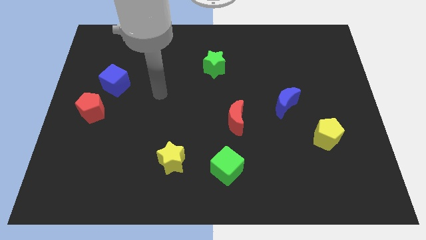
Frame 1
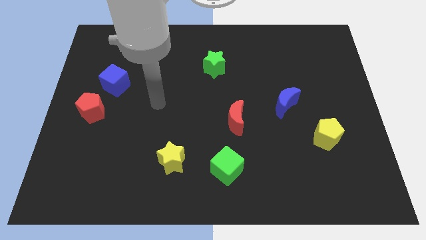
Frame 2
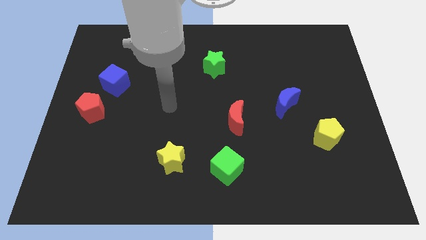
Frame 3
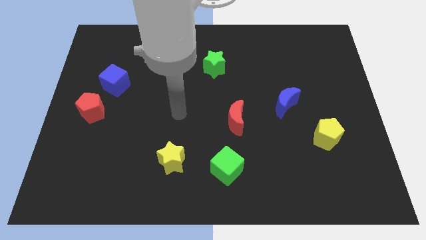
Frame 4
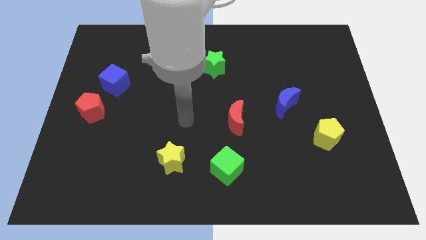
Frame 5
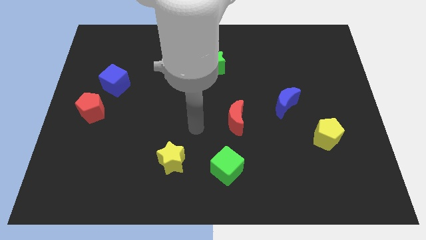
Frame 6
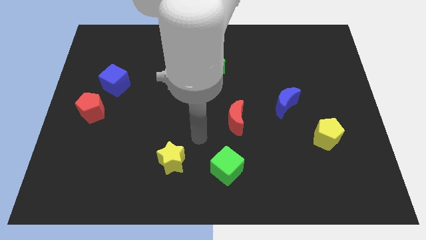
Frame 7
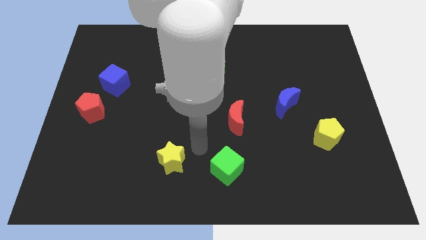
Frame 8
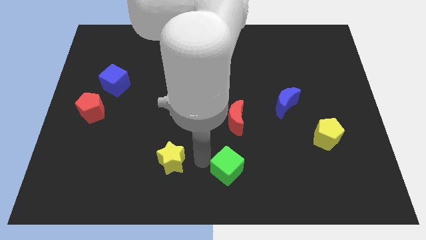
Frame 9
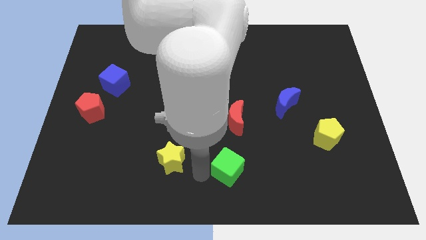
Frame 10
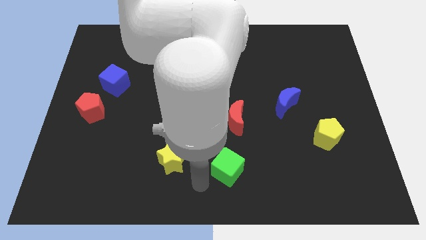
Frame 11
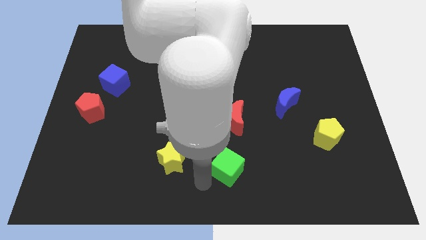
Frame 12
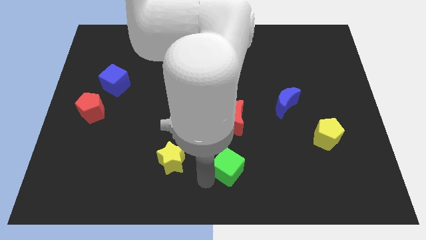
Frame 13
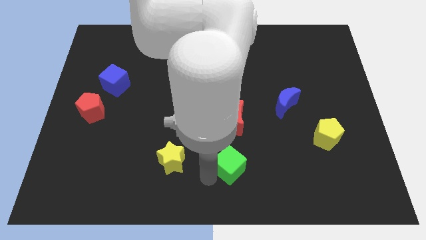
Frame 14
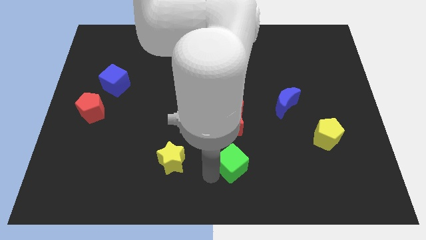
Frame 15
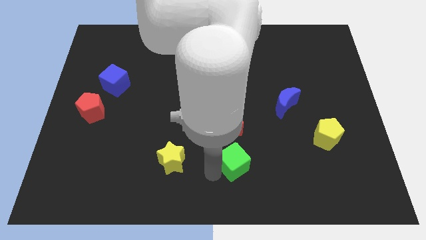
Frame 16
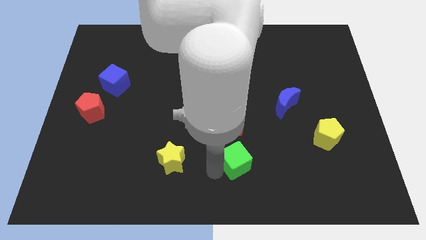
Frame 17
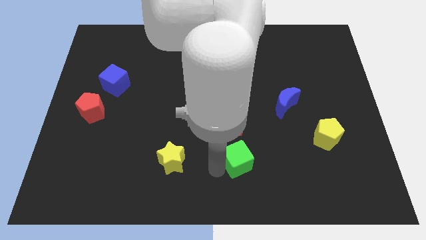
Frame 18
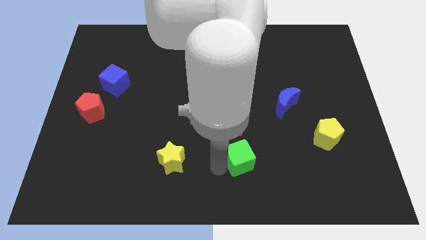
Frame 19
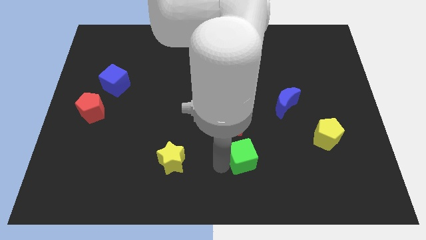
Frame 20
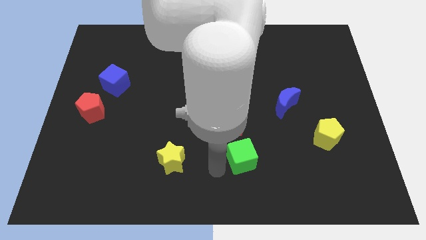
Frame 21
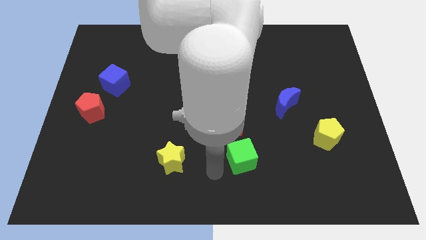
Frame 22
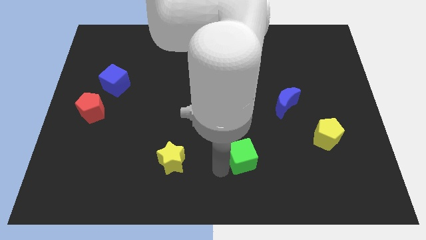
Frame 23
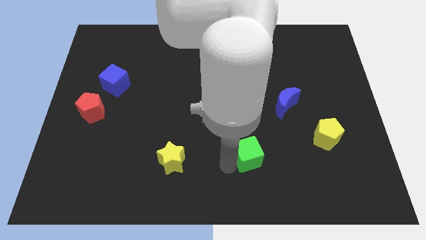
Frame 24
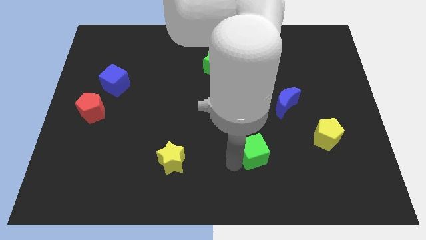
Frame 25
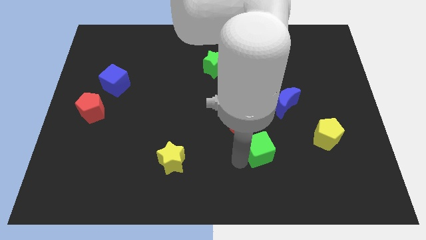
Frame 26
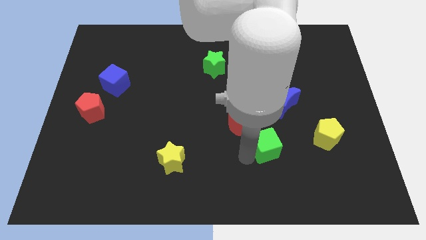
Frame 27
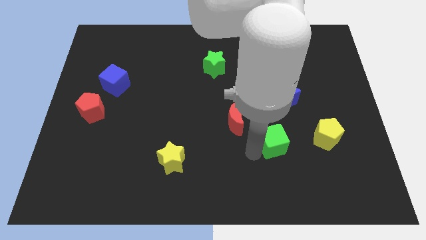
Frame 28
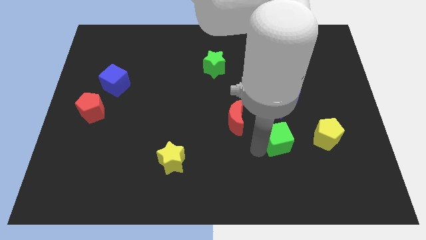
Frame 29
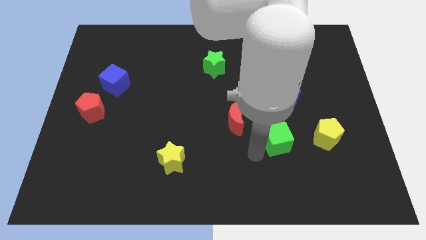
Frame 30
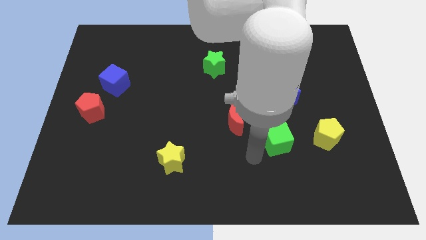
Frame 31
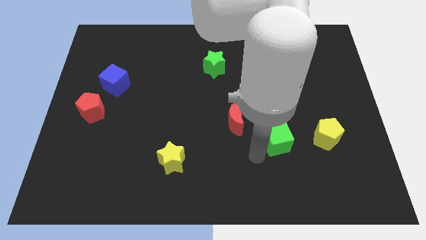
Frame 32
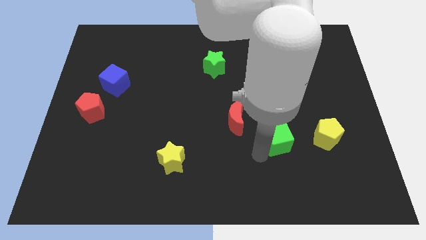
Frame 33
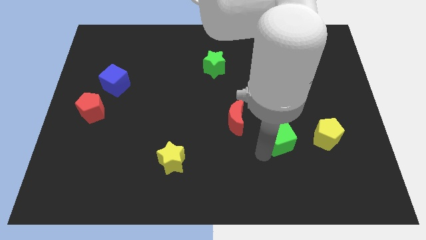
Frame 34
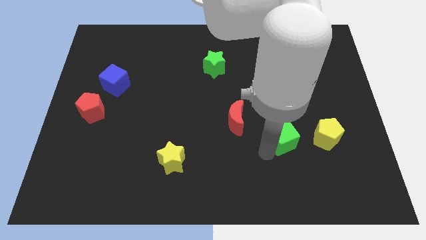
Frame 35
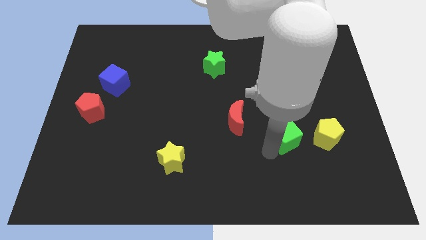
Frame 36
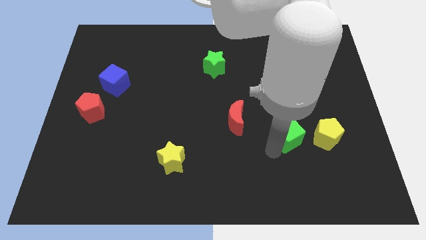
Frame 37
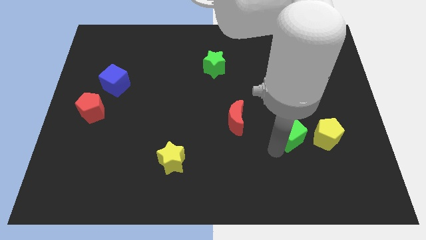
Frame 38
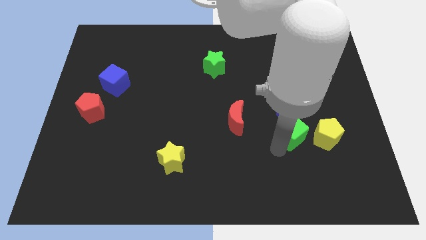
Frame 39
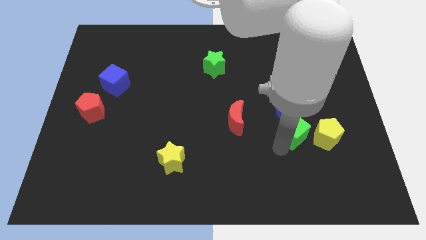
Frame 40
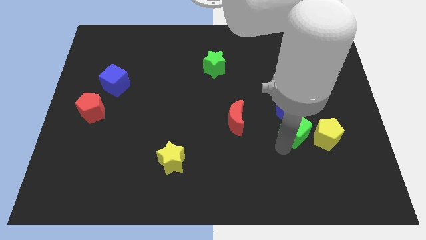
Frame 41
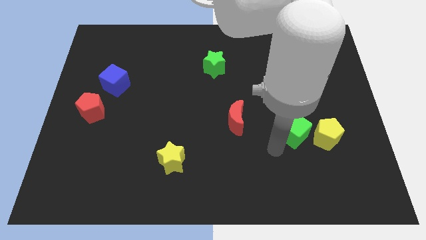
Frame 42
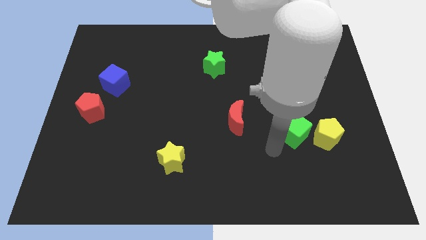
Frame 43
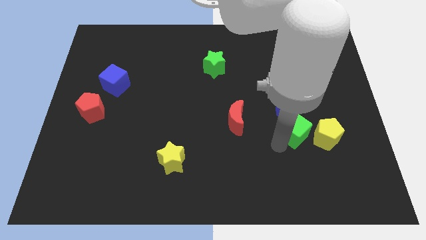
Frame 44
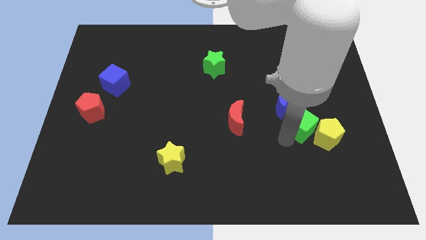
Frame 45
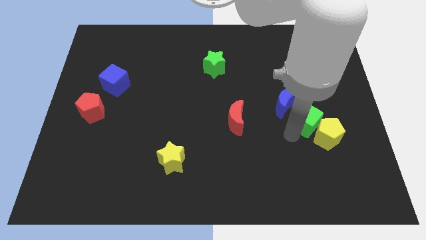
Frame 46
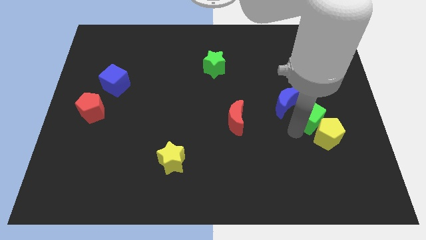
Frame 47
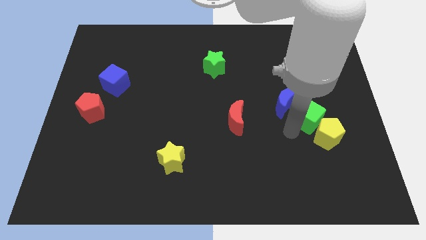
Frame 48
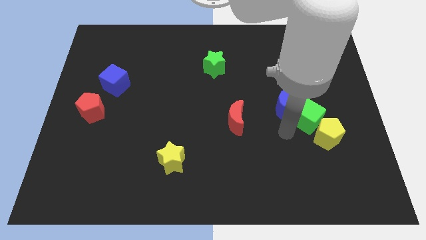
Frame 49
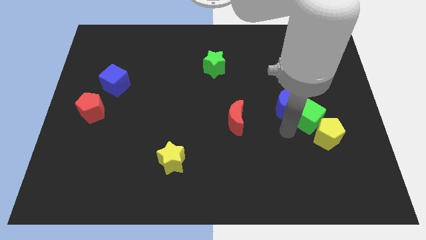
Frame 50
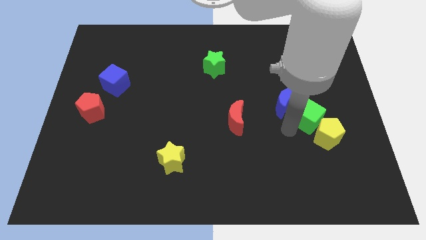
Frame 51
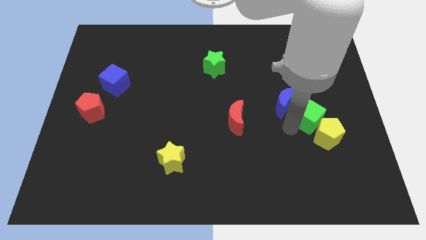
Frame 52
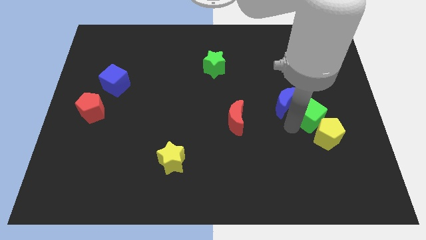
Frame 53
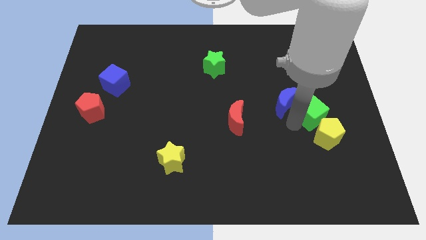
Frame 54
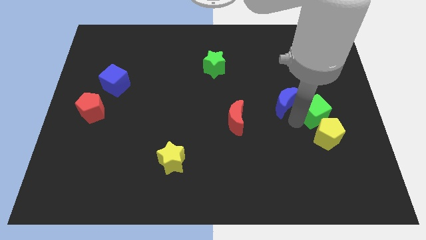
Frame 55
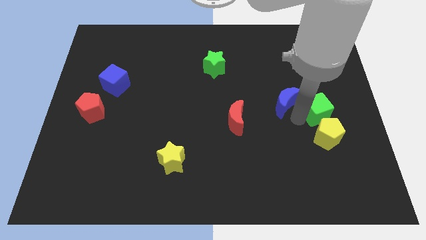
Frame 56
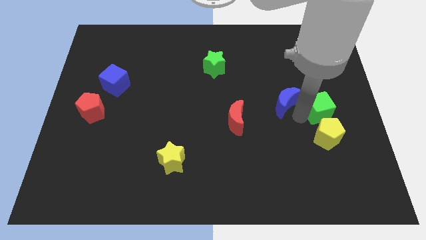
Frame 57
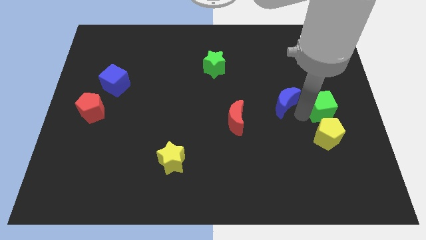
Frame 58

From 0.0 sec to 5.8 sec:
slide the green cube to the center right

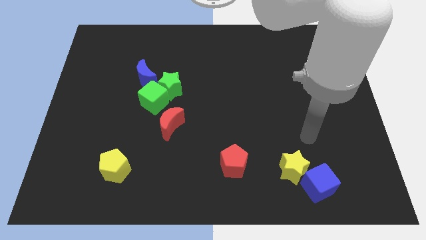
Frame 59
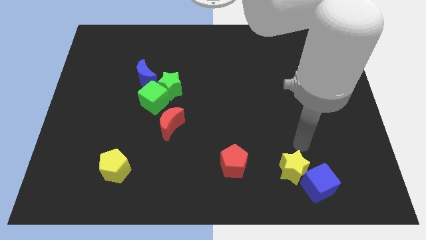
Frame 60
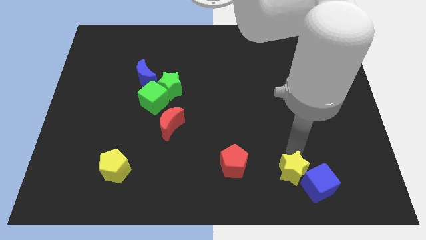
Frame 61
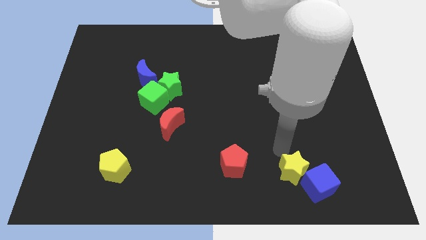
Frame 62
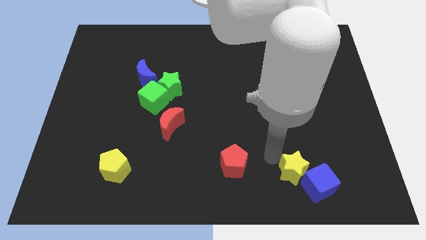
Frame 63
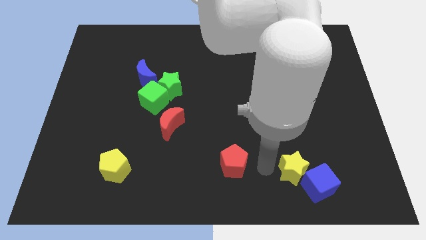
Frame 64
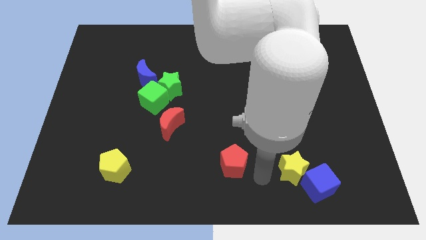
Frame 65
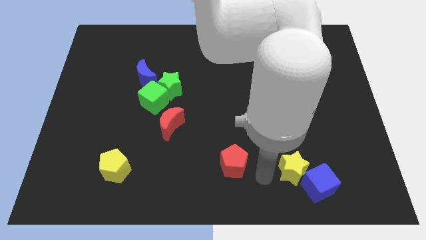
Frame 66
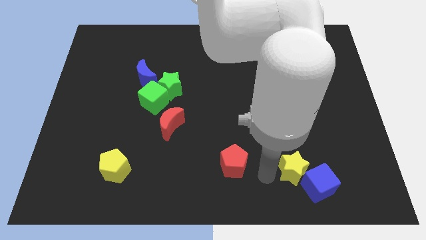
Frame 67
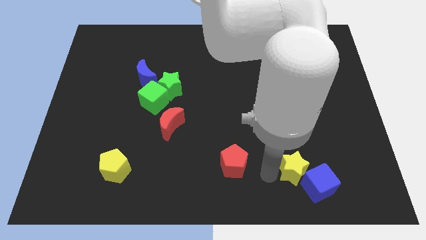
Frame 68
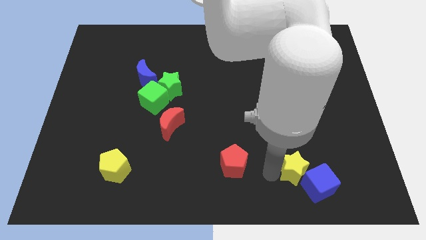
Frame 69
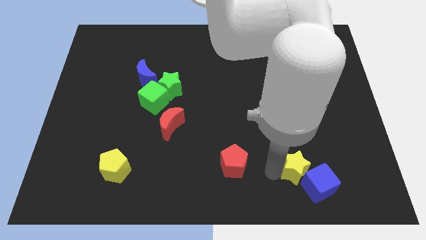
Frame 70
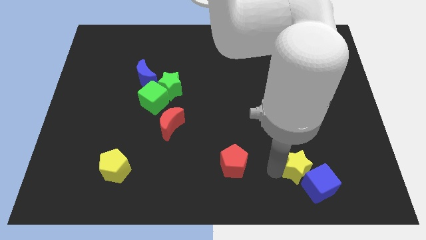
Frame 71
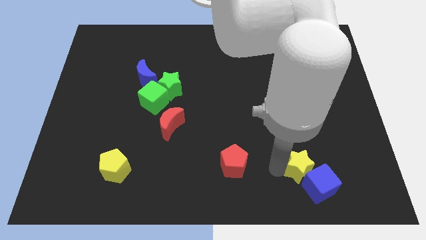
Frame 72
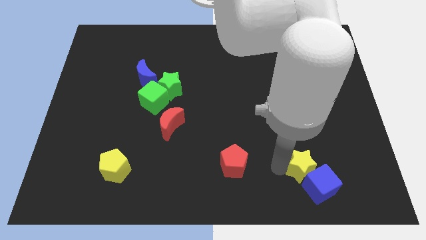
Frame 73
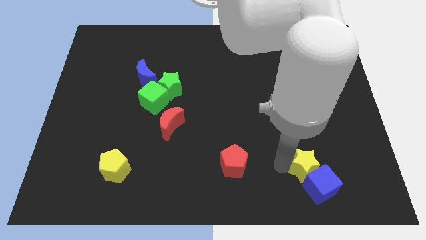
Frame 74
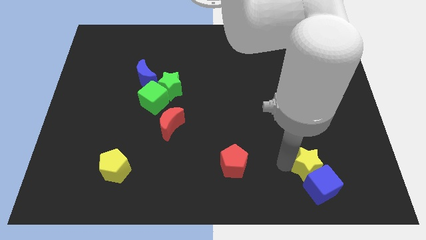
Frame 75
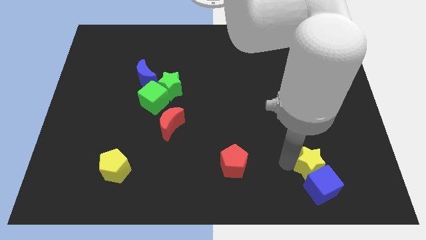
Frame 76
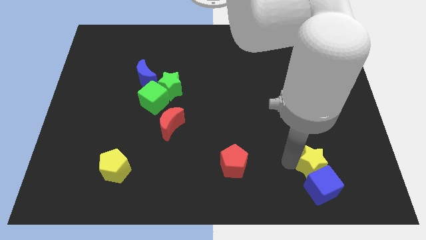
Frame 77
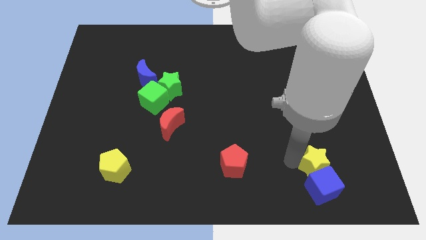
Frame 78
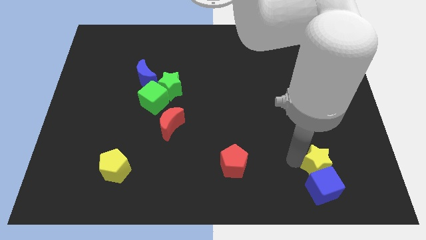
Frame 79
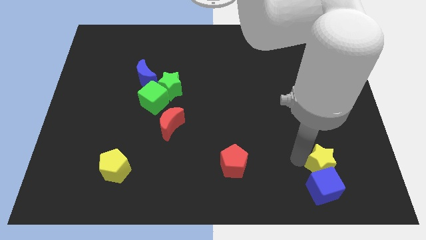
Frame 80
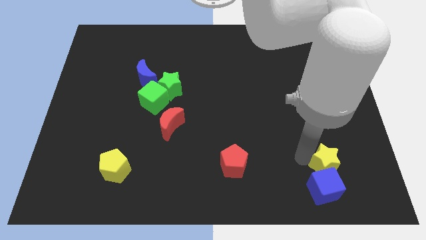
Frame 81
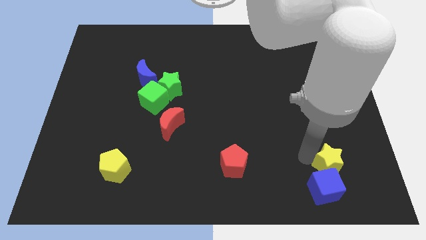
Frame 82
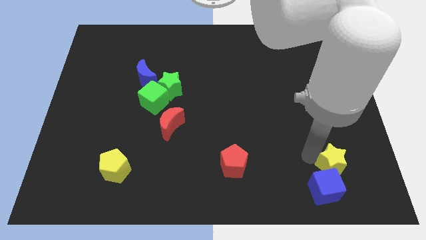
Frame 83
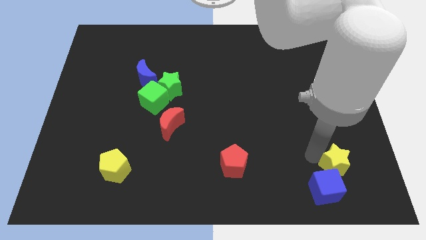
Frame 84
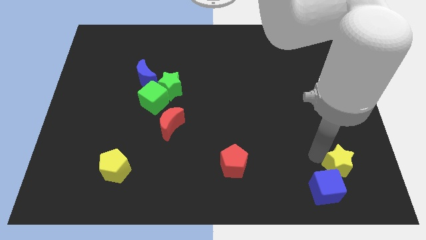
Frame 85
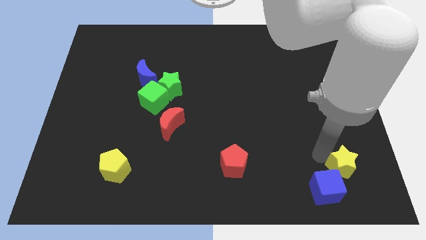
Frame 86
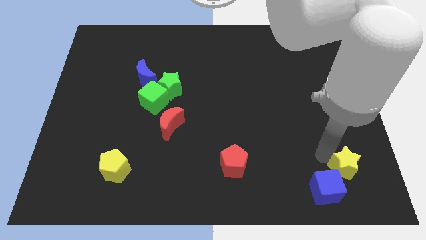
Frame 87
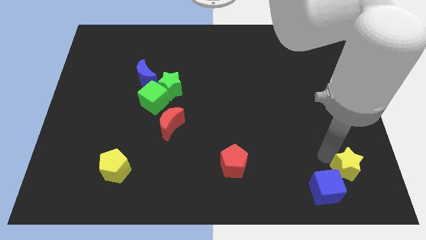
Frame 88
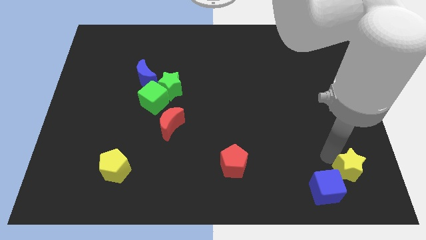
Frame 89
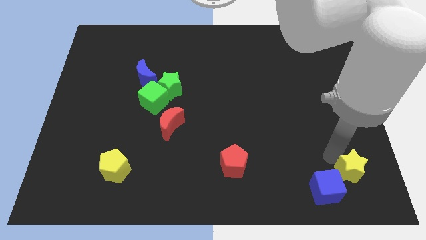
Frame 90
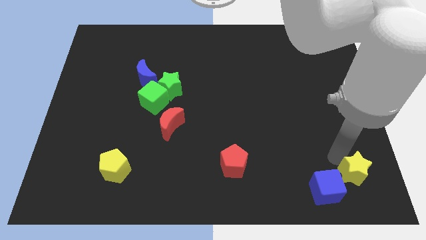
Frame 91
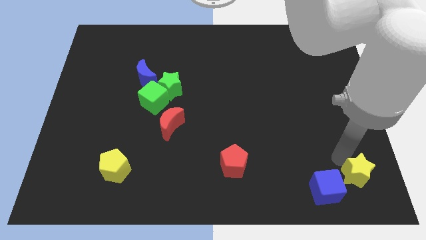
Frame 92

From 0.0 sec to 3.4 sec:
put the yellow star to the bottom right corner
